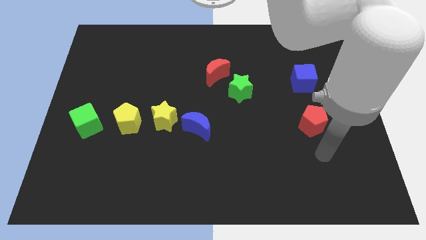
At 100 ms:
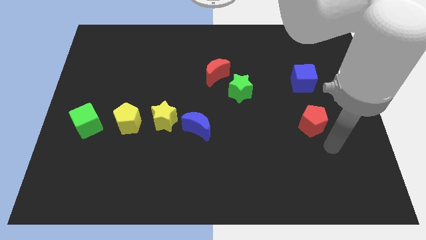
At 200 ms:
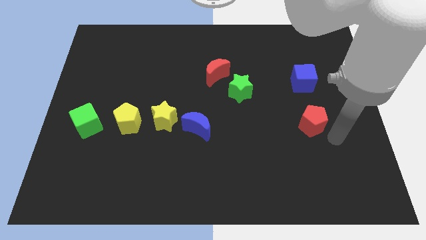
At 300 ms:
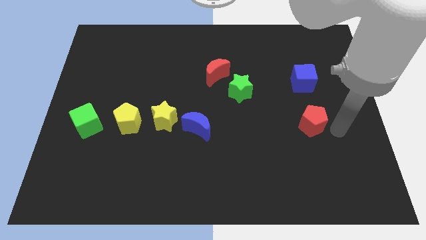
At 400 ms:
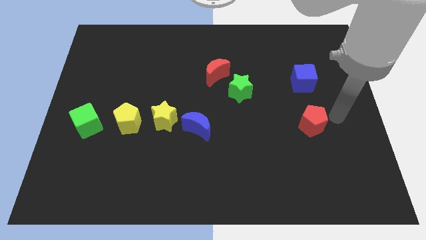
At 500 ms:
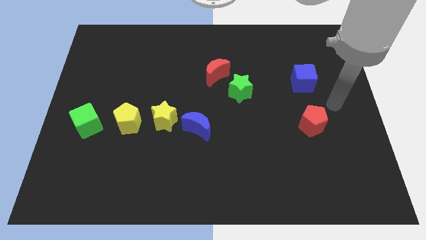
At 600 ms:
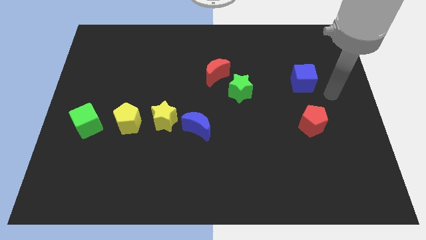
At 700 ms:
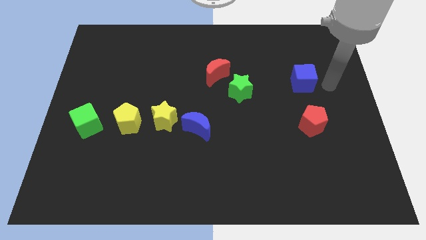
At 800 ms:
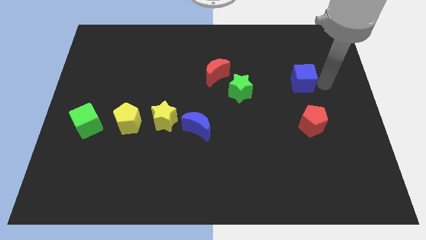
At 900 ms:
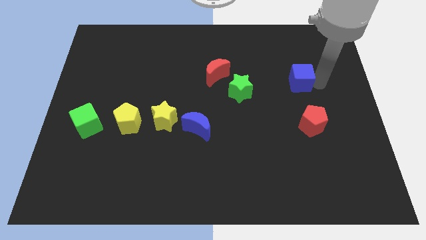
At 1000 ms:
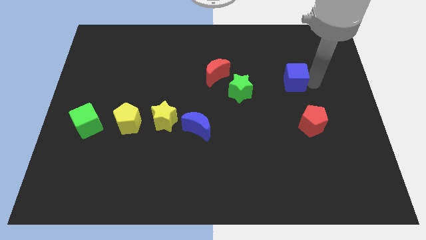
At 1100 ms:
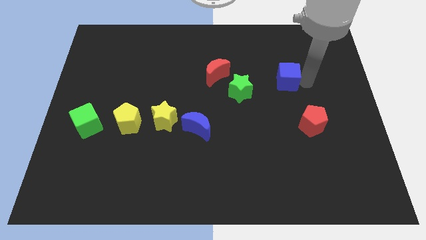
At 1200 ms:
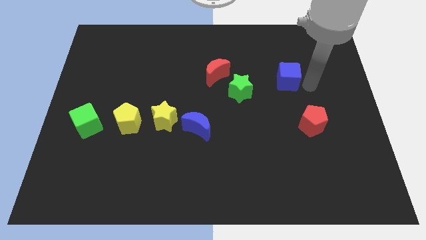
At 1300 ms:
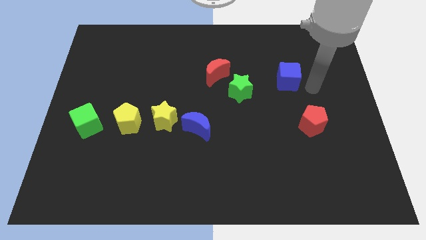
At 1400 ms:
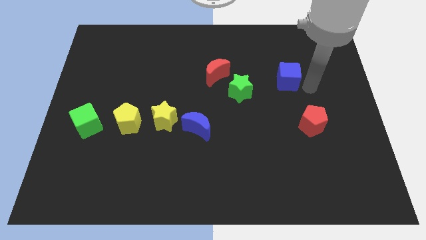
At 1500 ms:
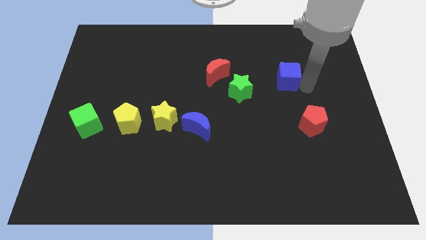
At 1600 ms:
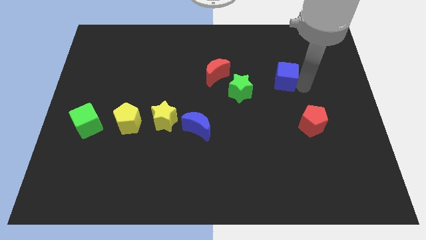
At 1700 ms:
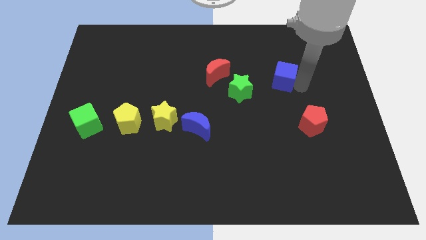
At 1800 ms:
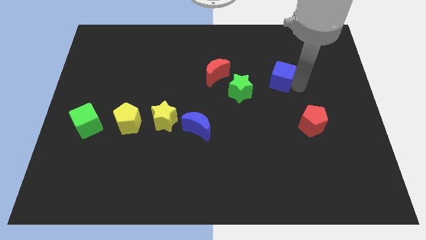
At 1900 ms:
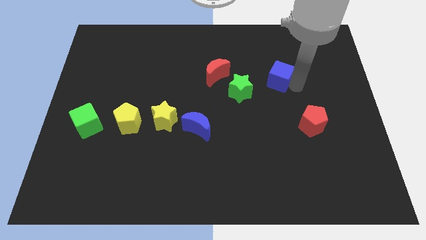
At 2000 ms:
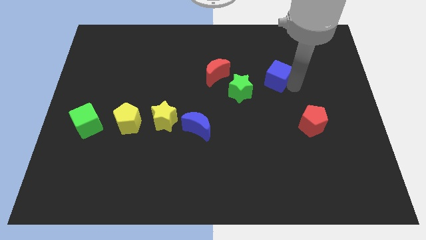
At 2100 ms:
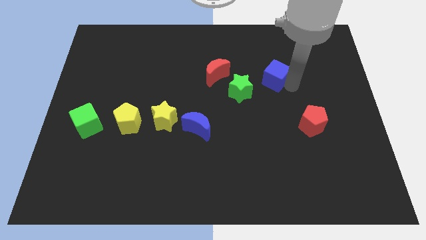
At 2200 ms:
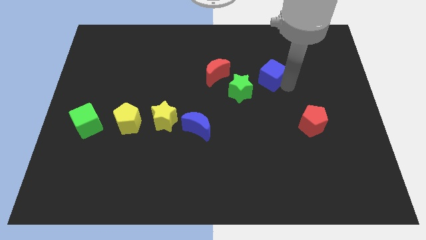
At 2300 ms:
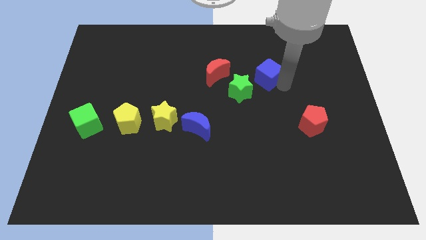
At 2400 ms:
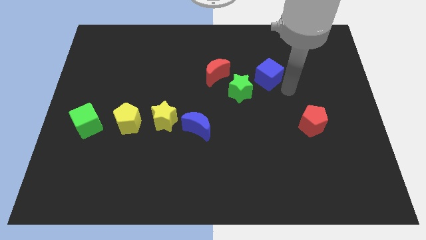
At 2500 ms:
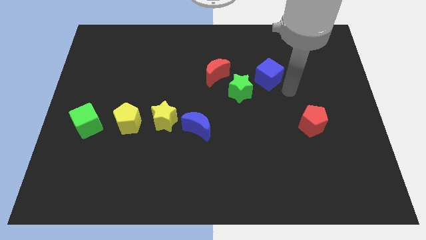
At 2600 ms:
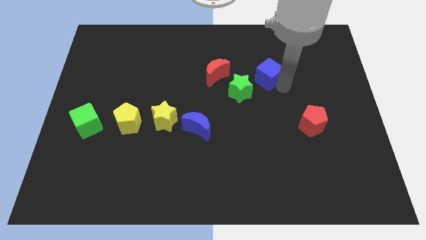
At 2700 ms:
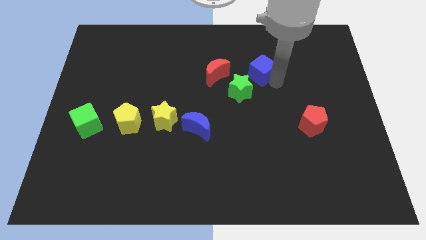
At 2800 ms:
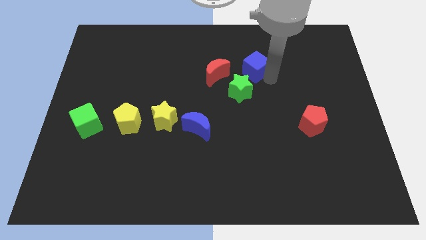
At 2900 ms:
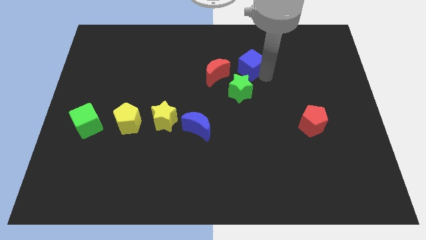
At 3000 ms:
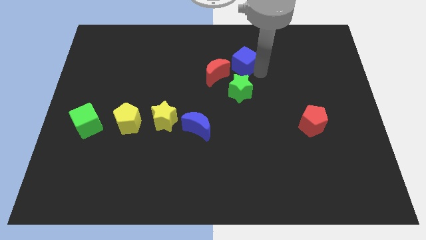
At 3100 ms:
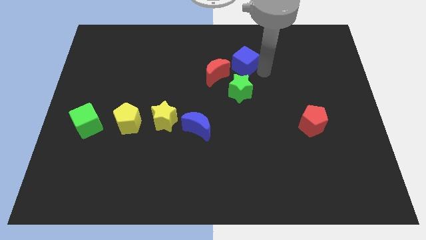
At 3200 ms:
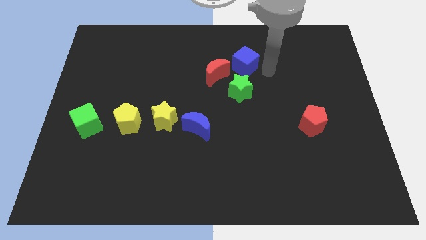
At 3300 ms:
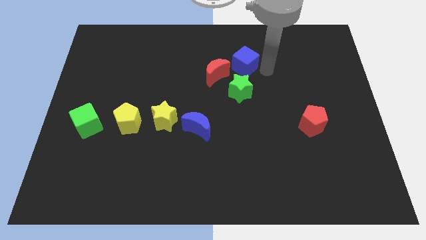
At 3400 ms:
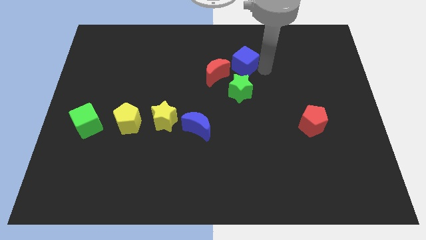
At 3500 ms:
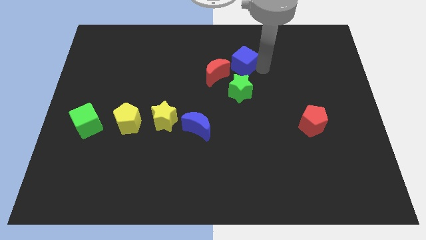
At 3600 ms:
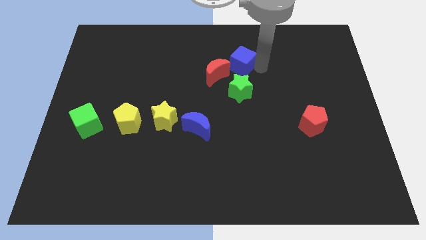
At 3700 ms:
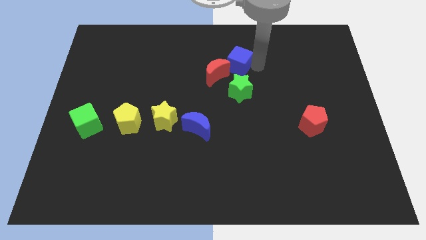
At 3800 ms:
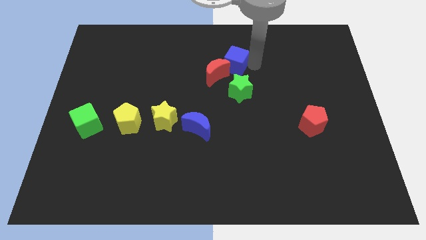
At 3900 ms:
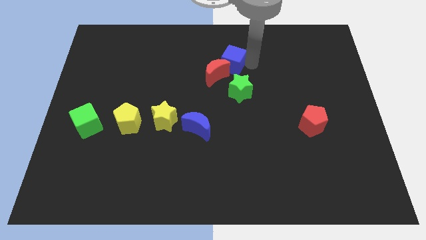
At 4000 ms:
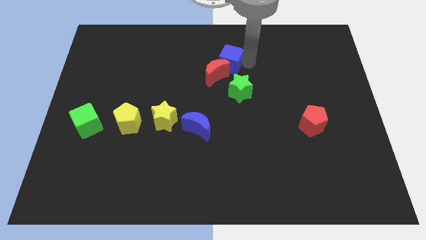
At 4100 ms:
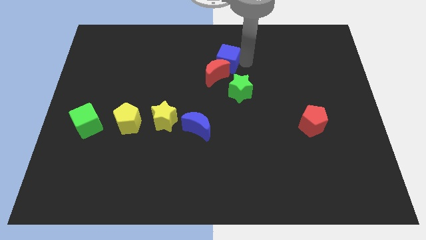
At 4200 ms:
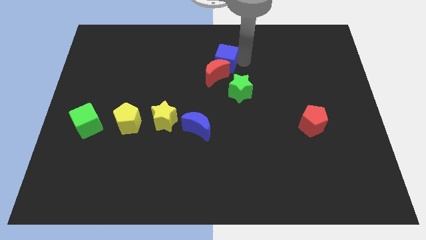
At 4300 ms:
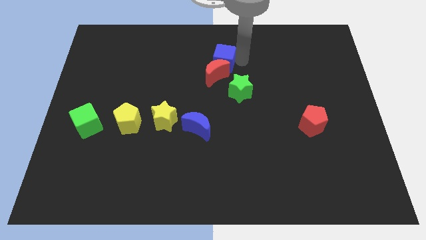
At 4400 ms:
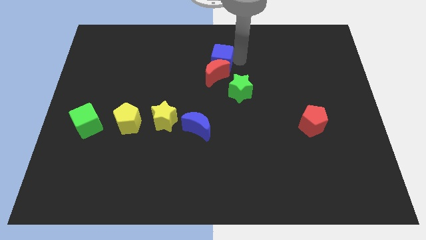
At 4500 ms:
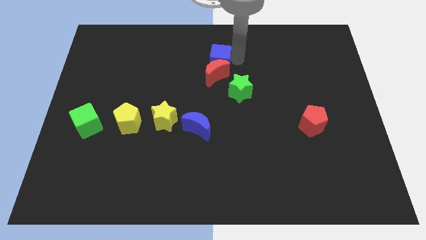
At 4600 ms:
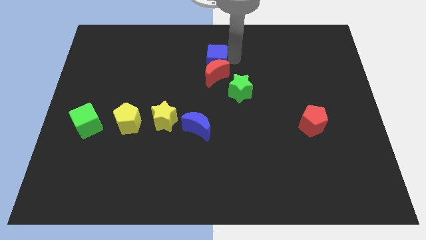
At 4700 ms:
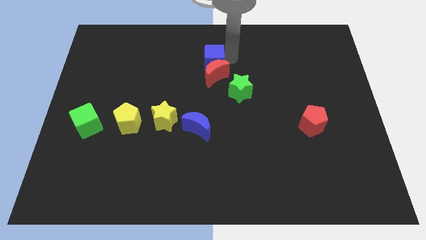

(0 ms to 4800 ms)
move the blue cube left

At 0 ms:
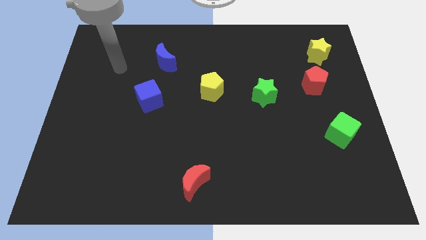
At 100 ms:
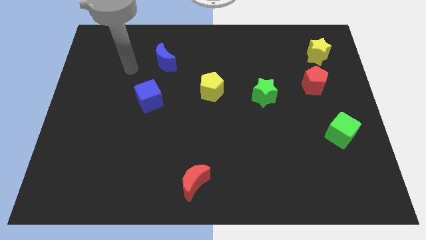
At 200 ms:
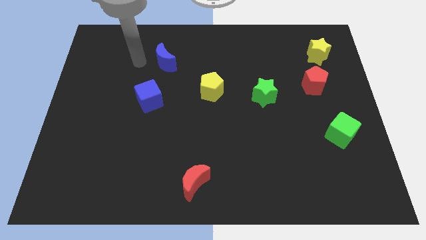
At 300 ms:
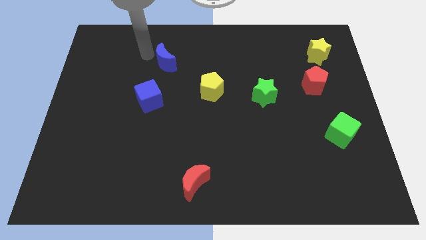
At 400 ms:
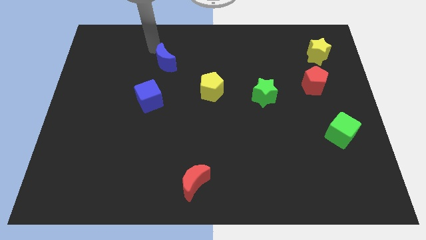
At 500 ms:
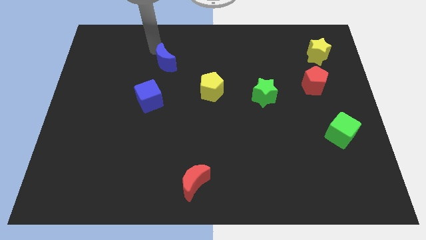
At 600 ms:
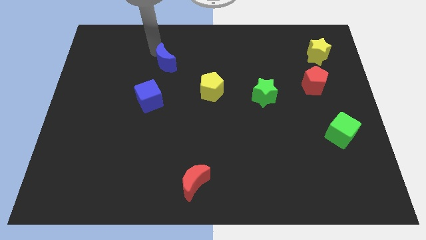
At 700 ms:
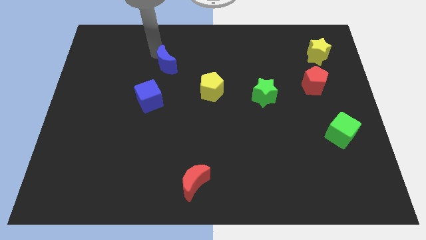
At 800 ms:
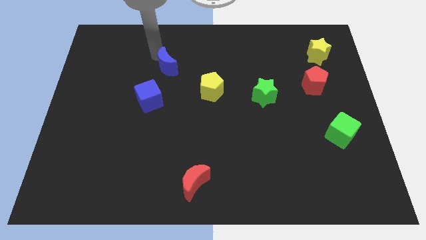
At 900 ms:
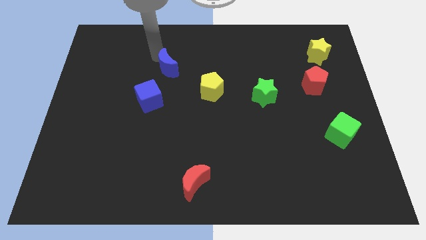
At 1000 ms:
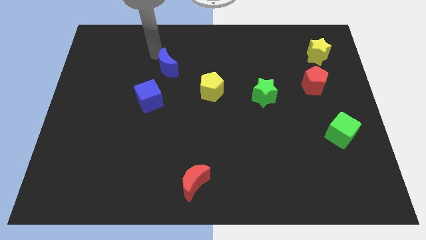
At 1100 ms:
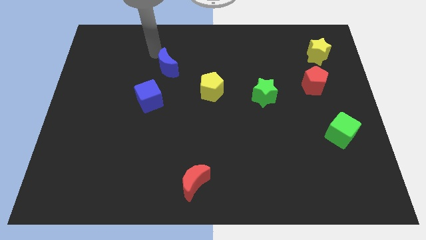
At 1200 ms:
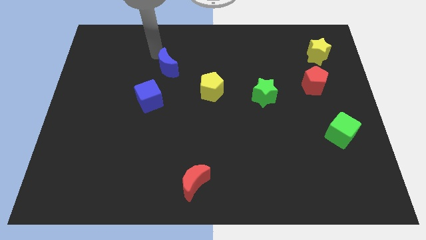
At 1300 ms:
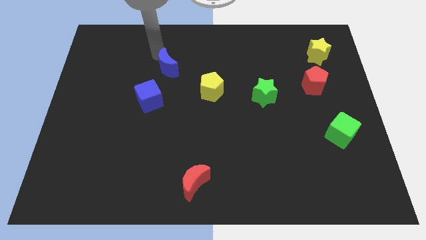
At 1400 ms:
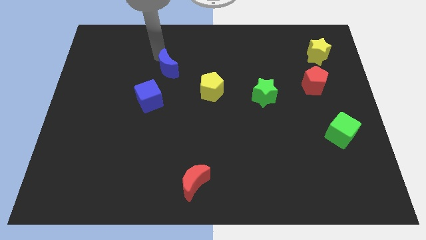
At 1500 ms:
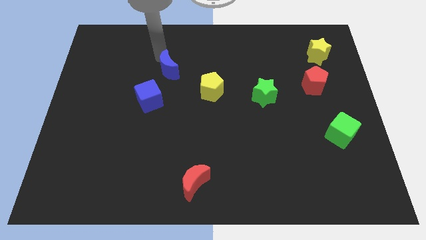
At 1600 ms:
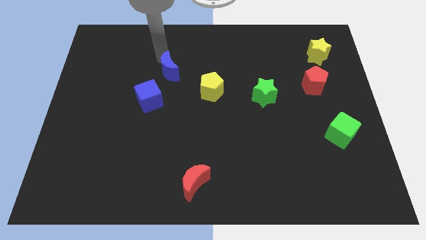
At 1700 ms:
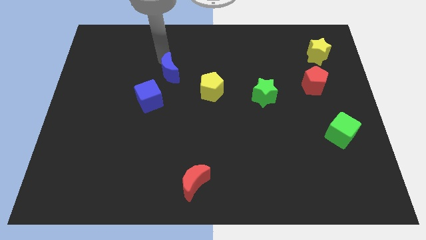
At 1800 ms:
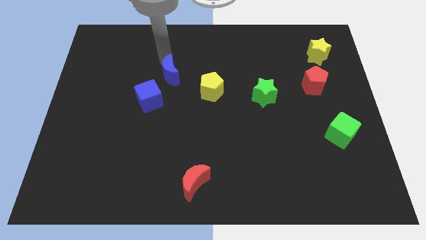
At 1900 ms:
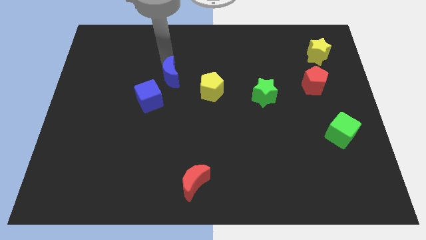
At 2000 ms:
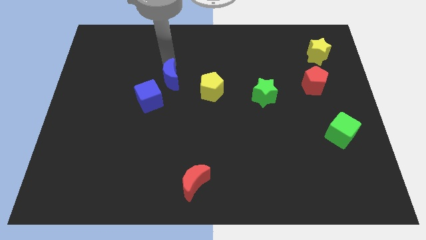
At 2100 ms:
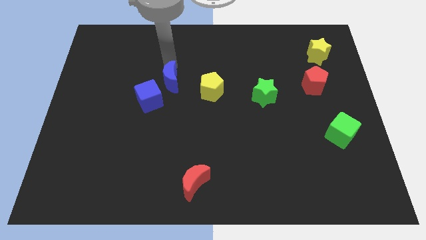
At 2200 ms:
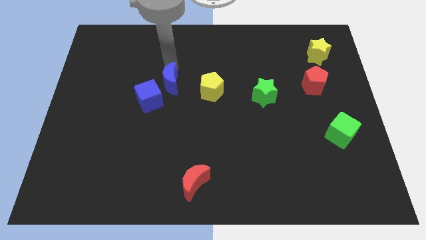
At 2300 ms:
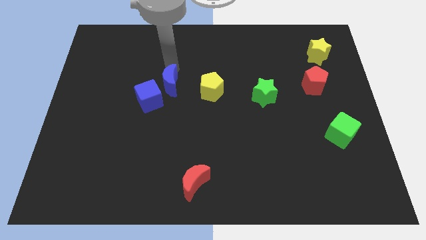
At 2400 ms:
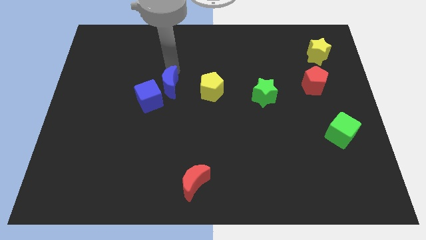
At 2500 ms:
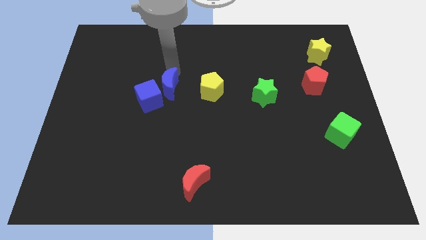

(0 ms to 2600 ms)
push the blue moon downwards and right a little bit

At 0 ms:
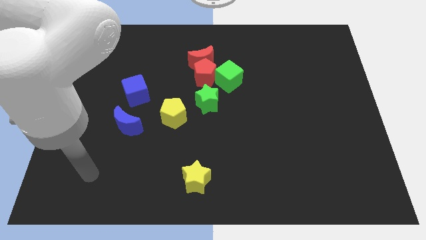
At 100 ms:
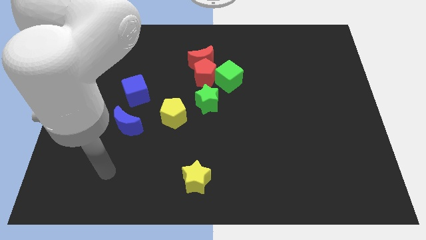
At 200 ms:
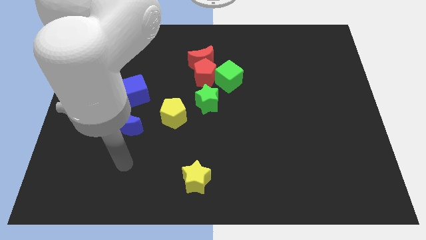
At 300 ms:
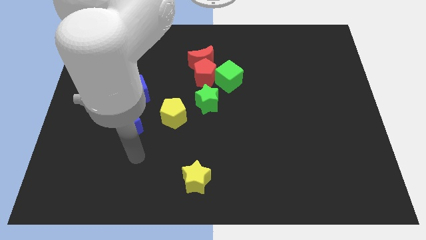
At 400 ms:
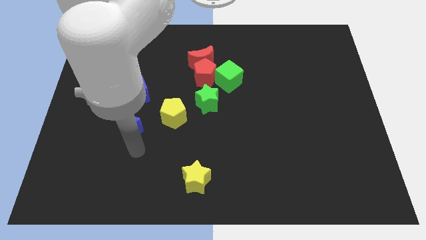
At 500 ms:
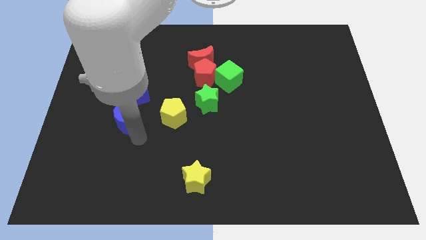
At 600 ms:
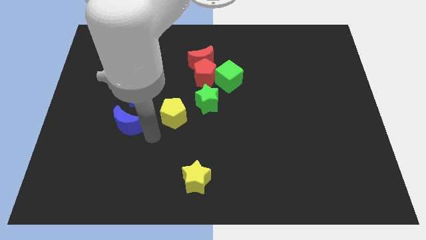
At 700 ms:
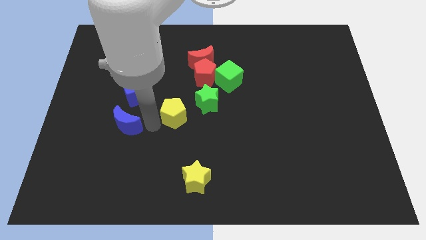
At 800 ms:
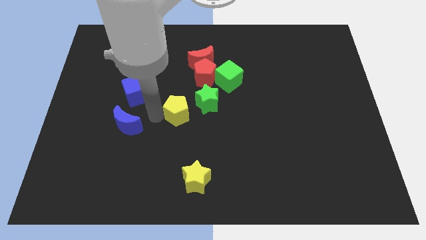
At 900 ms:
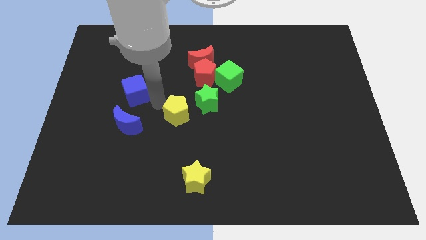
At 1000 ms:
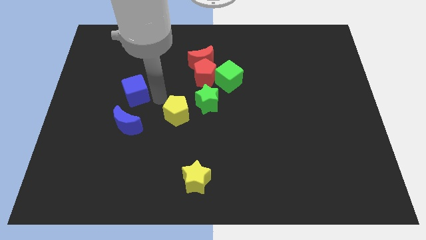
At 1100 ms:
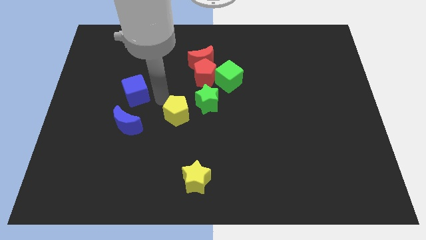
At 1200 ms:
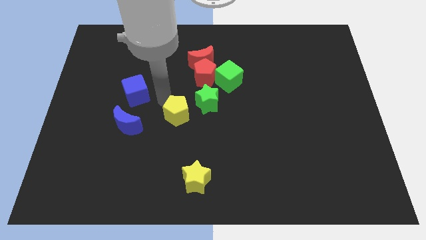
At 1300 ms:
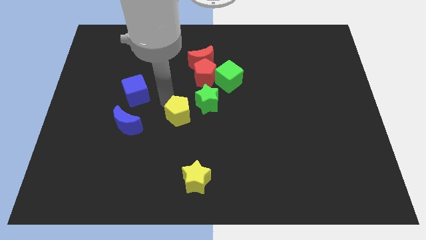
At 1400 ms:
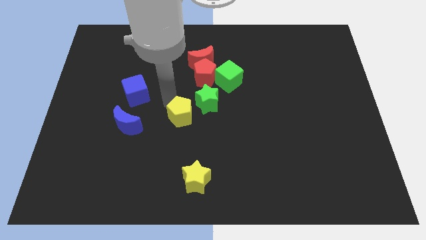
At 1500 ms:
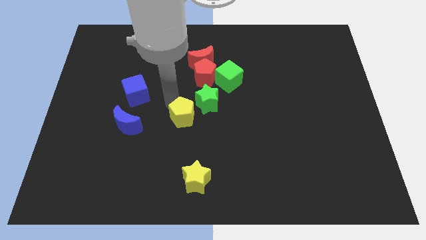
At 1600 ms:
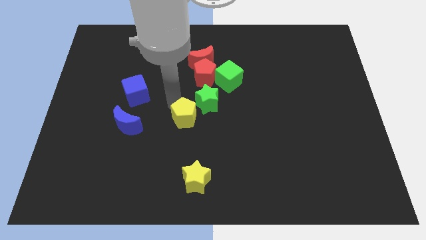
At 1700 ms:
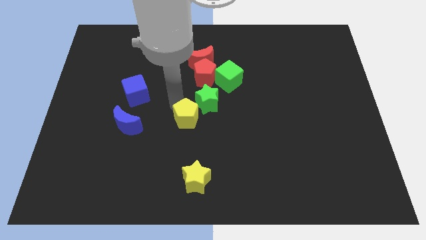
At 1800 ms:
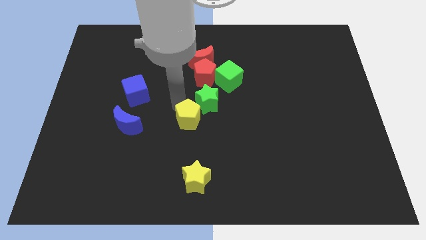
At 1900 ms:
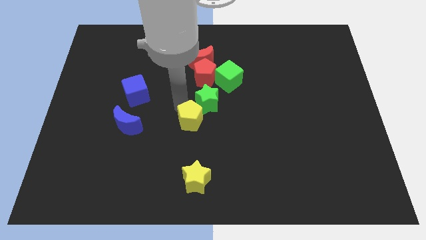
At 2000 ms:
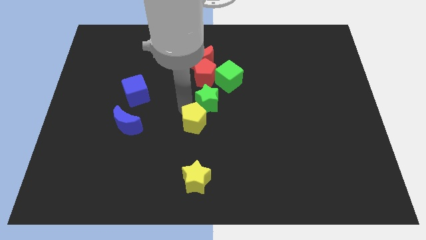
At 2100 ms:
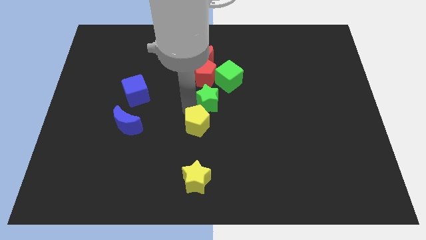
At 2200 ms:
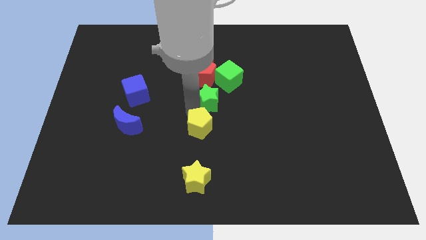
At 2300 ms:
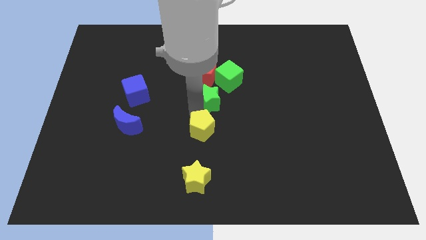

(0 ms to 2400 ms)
slightly move the yellow pentagon down and then to the right
